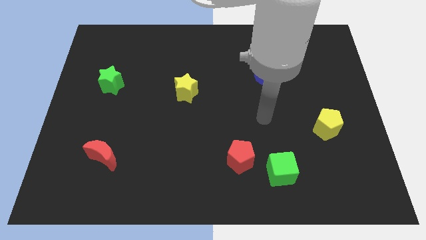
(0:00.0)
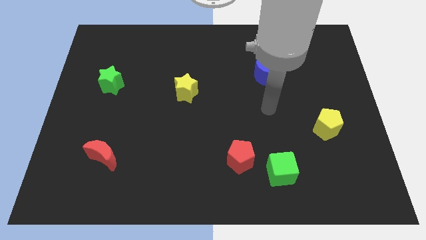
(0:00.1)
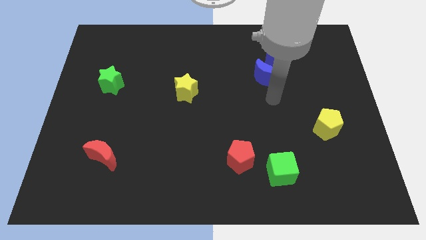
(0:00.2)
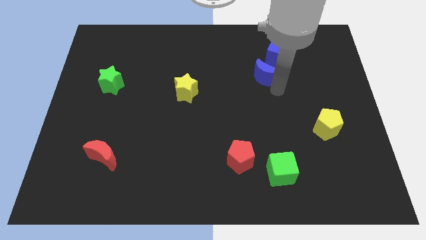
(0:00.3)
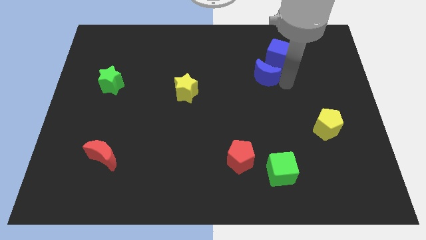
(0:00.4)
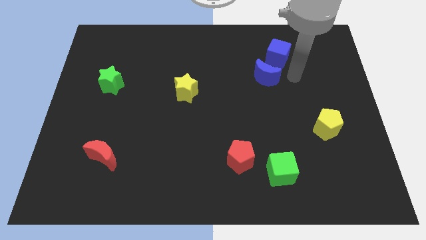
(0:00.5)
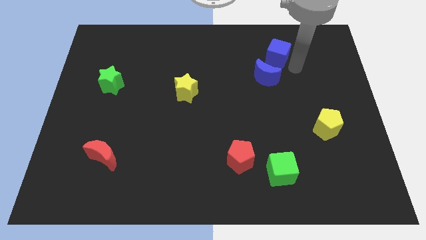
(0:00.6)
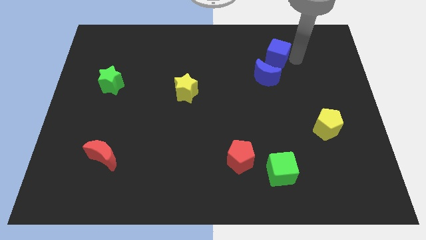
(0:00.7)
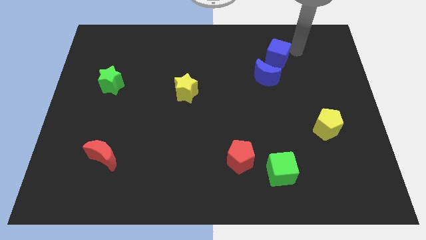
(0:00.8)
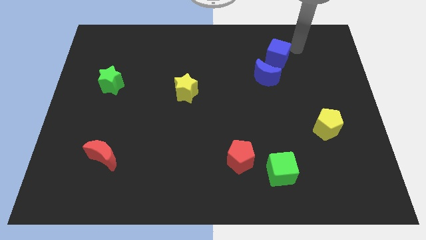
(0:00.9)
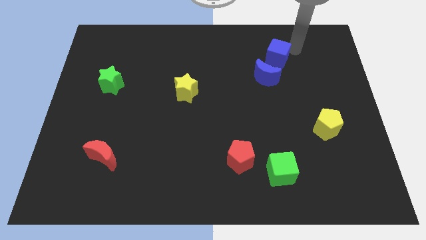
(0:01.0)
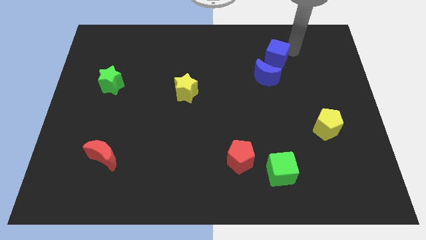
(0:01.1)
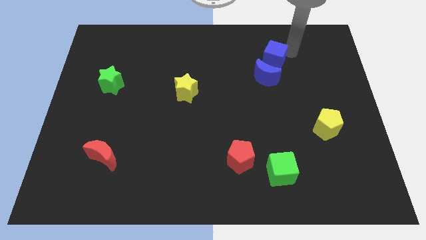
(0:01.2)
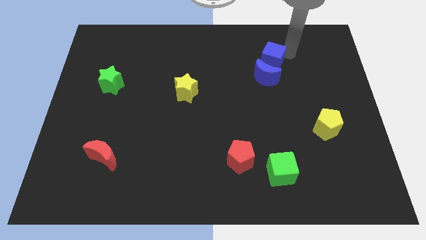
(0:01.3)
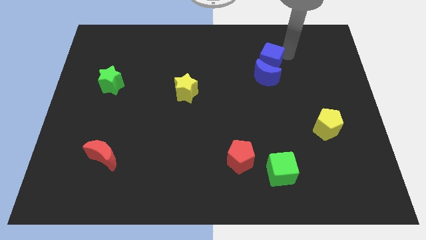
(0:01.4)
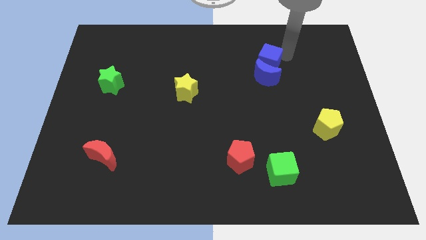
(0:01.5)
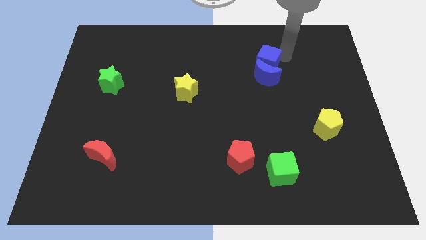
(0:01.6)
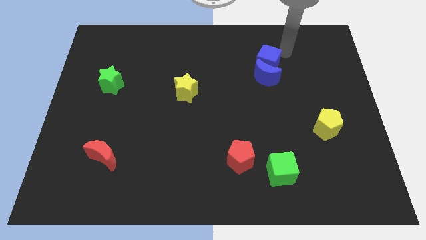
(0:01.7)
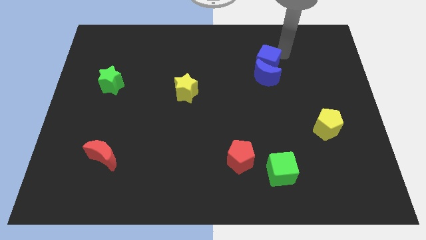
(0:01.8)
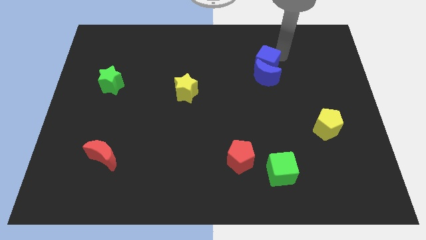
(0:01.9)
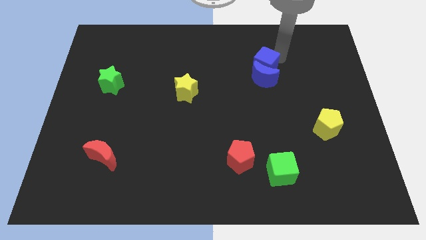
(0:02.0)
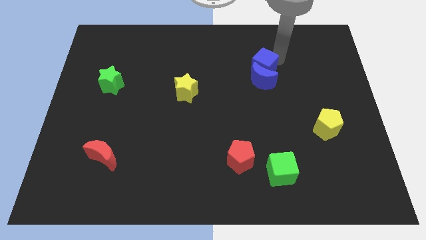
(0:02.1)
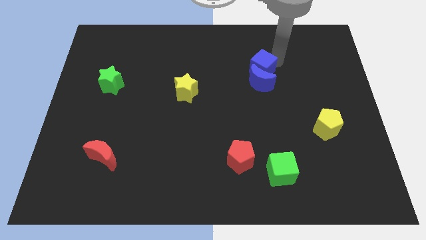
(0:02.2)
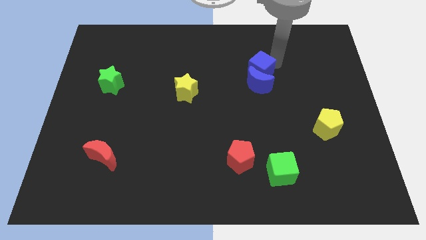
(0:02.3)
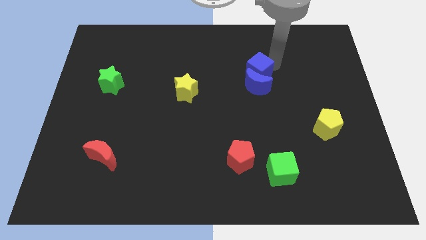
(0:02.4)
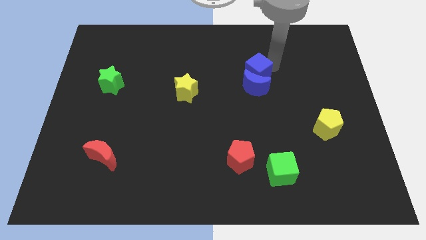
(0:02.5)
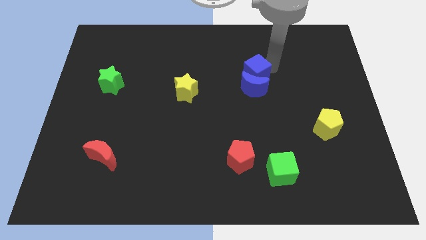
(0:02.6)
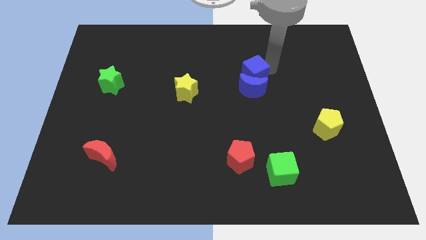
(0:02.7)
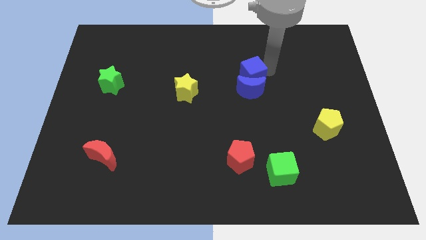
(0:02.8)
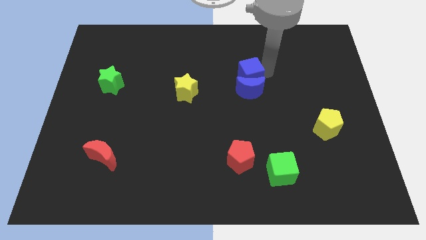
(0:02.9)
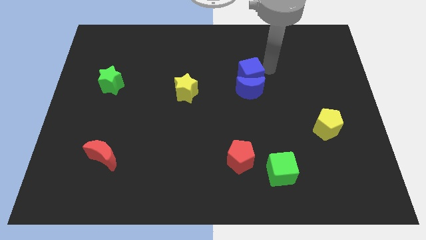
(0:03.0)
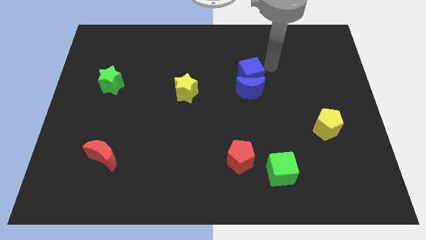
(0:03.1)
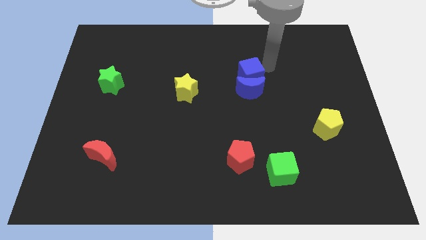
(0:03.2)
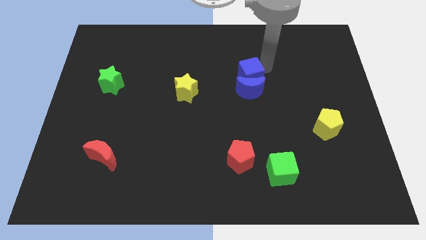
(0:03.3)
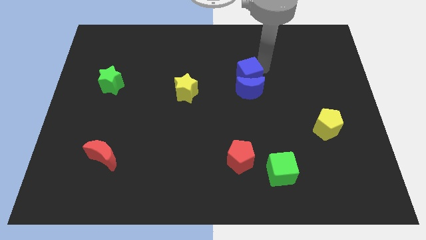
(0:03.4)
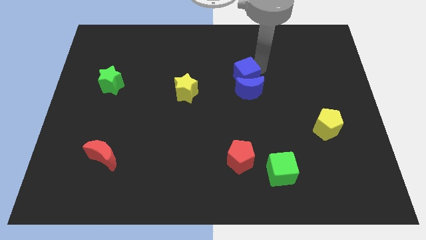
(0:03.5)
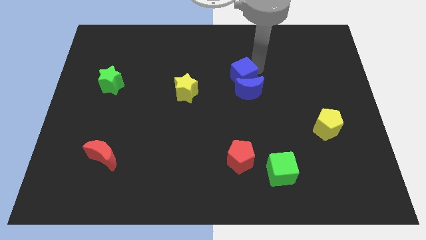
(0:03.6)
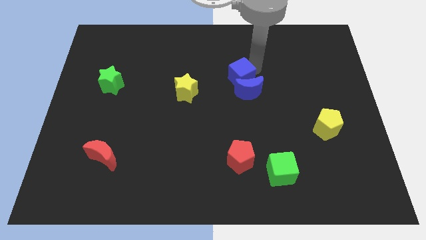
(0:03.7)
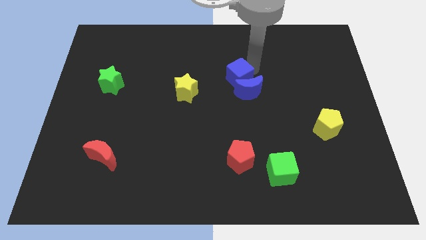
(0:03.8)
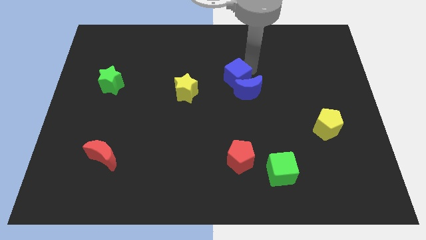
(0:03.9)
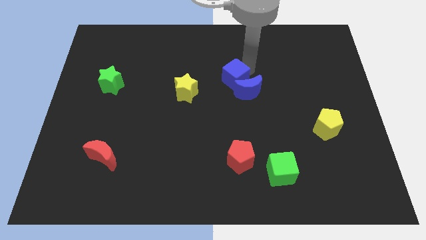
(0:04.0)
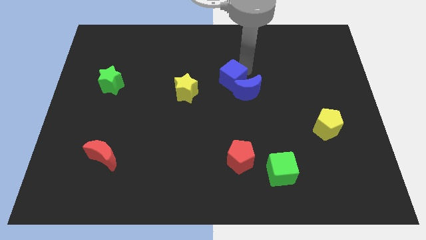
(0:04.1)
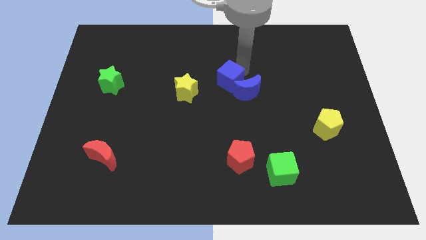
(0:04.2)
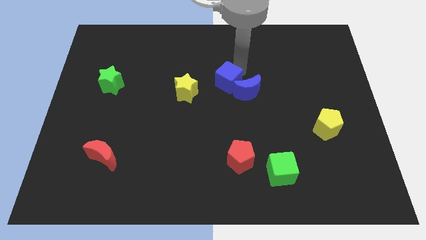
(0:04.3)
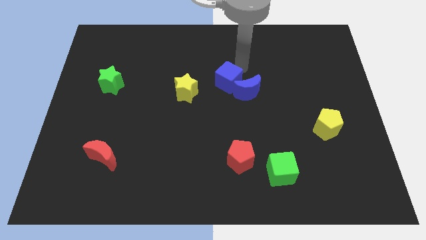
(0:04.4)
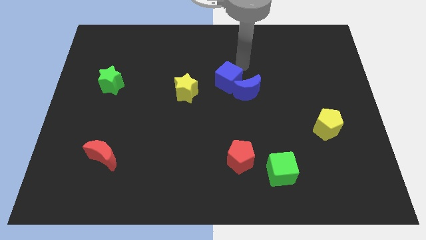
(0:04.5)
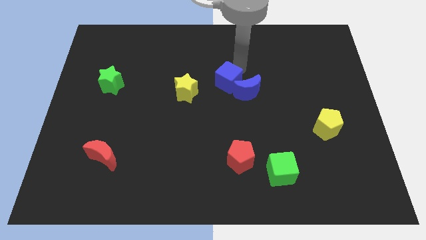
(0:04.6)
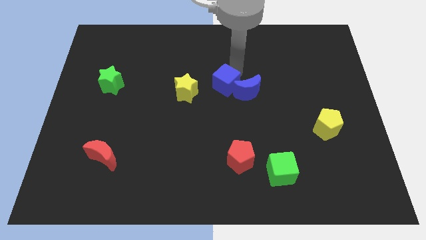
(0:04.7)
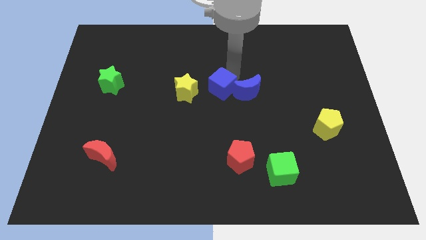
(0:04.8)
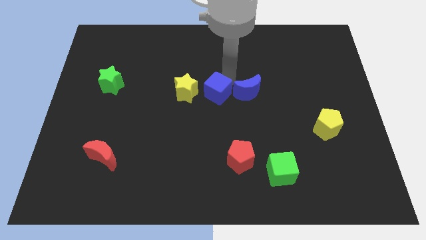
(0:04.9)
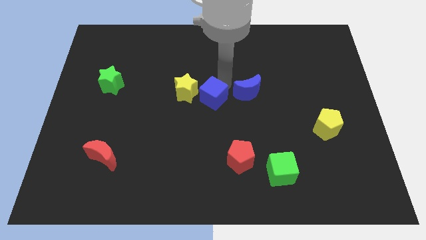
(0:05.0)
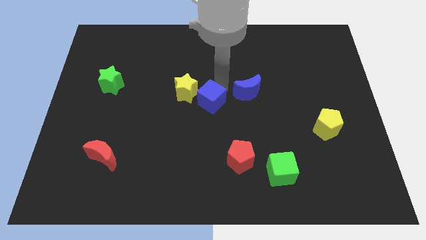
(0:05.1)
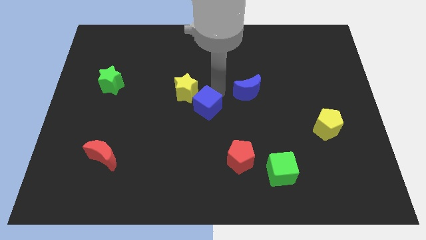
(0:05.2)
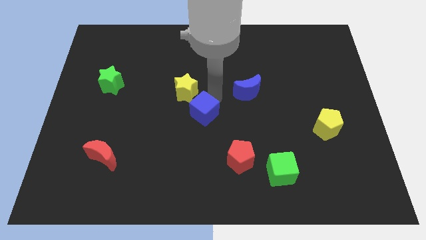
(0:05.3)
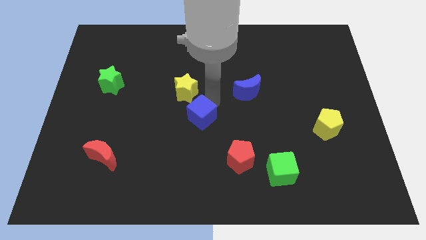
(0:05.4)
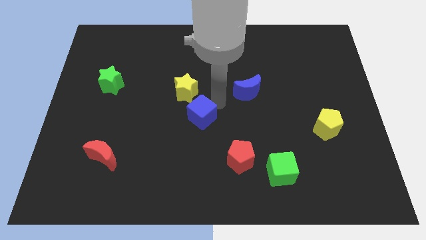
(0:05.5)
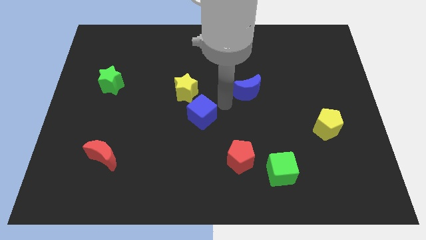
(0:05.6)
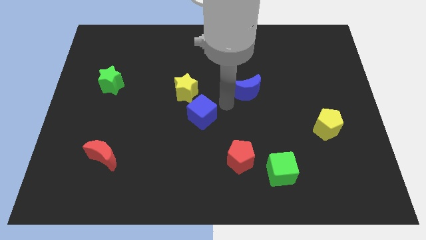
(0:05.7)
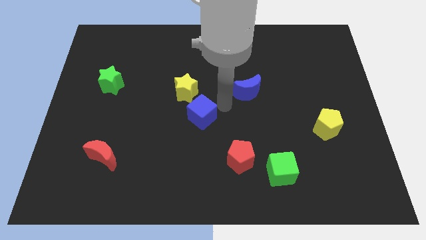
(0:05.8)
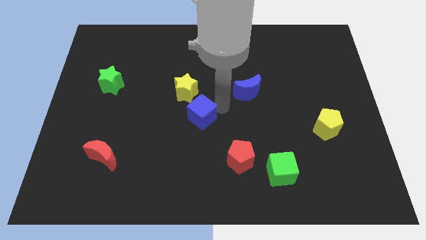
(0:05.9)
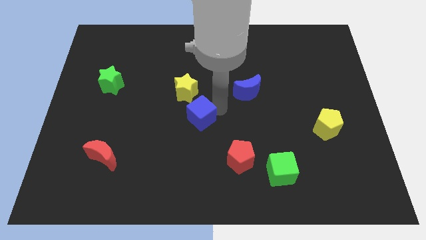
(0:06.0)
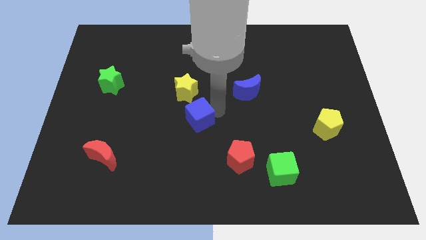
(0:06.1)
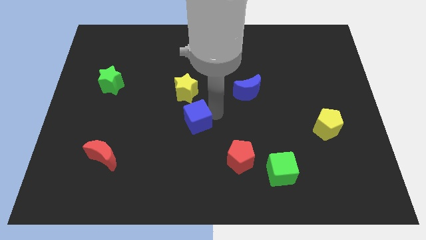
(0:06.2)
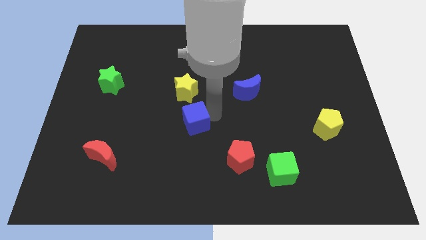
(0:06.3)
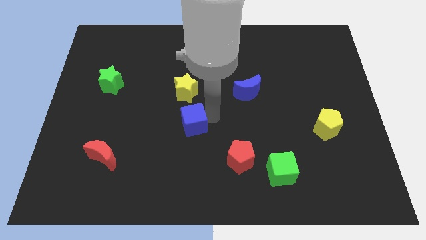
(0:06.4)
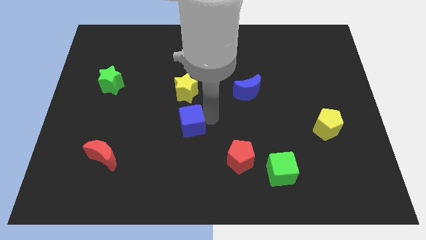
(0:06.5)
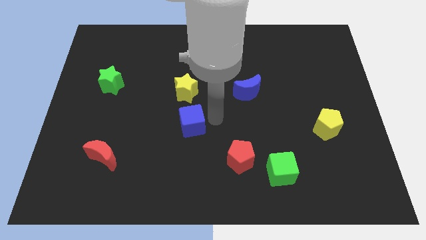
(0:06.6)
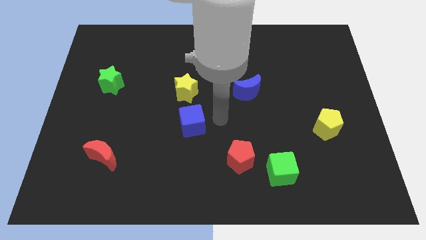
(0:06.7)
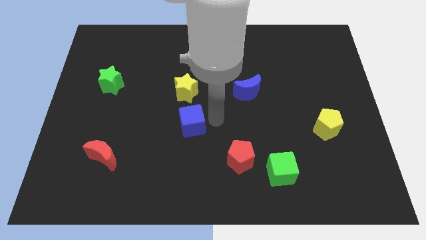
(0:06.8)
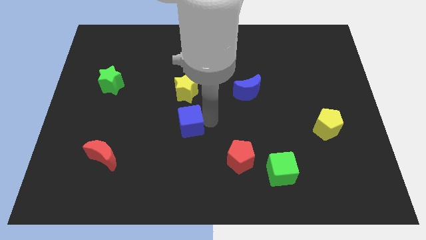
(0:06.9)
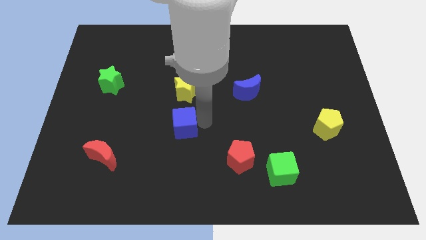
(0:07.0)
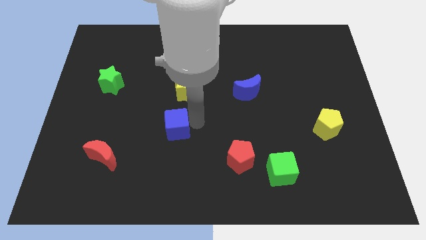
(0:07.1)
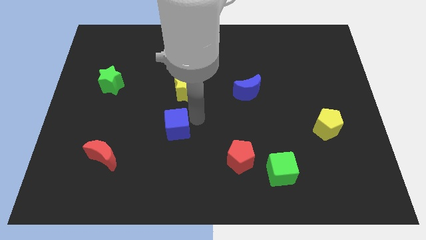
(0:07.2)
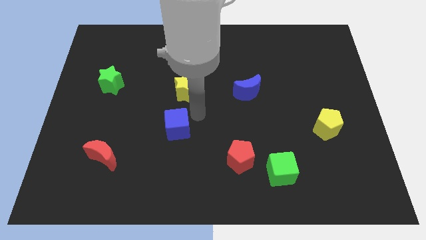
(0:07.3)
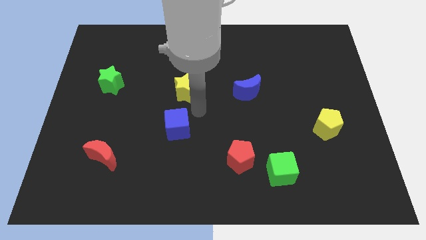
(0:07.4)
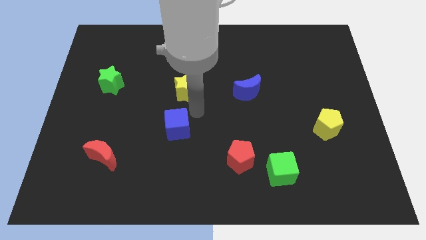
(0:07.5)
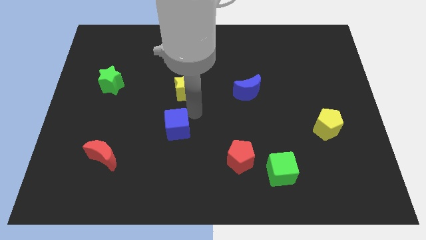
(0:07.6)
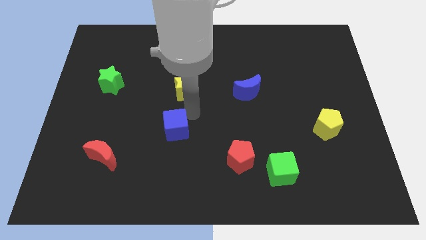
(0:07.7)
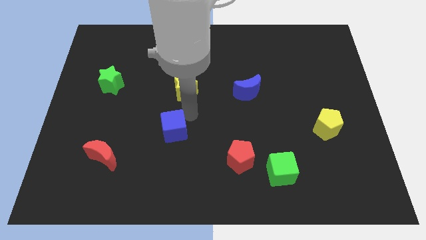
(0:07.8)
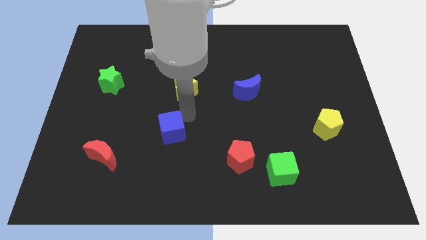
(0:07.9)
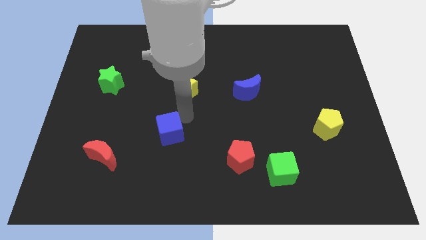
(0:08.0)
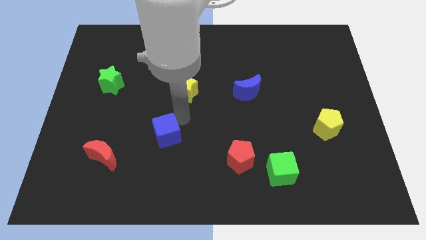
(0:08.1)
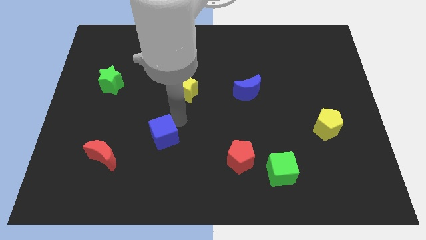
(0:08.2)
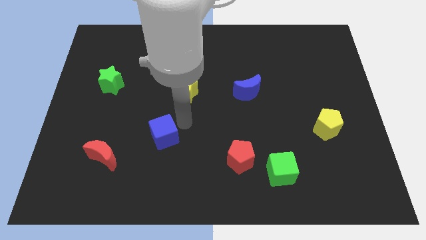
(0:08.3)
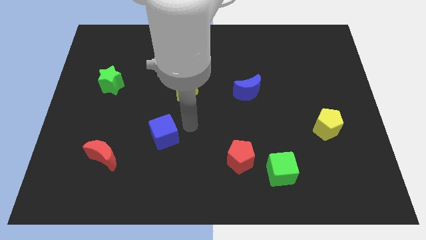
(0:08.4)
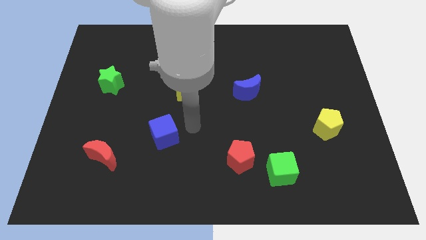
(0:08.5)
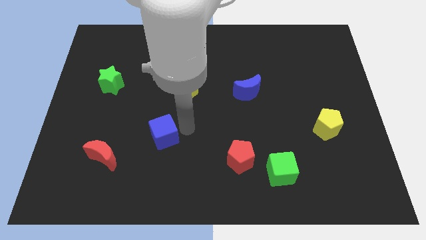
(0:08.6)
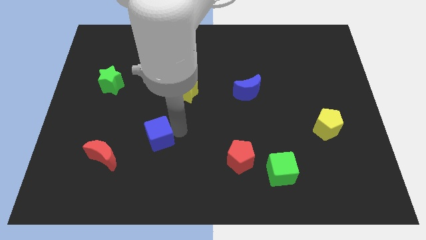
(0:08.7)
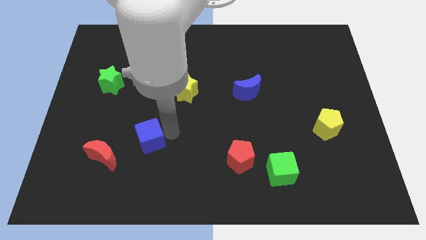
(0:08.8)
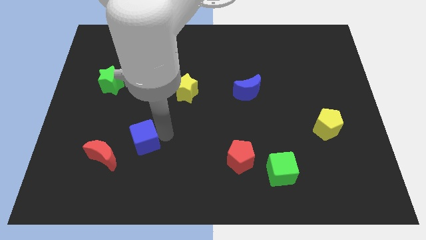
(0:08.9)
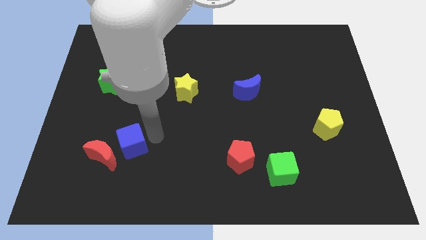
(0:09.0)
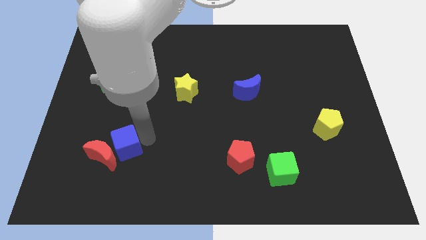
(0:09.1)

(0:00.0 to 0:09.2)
put the blue cube towards the red moon
